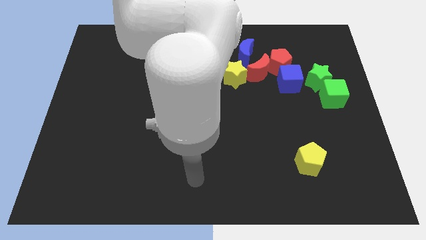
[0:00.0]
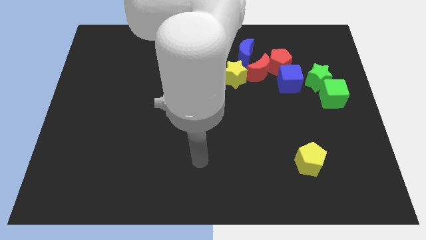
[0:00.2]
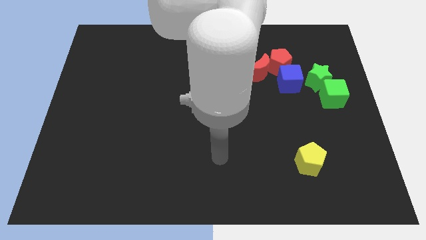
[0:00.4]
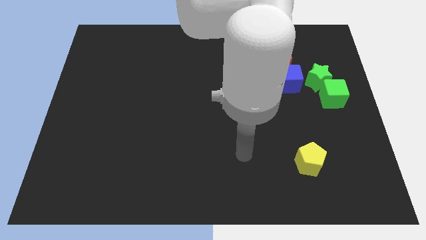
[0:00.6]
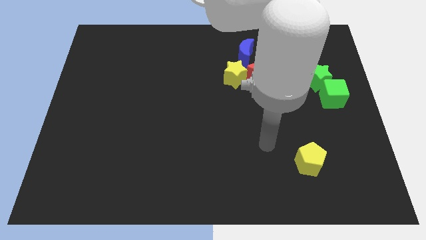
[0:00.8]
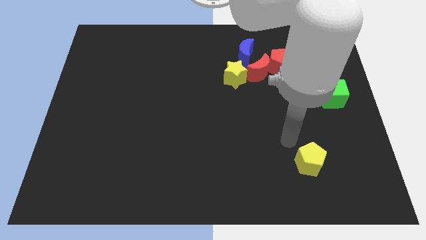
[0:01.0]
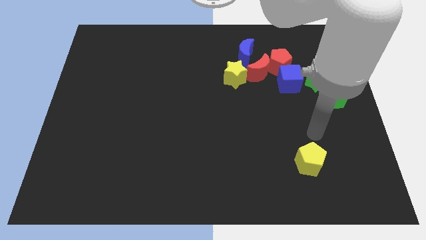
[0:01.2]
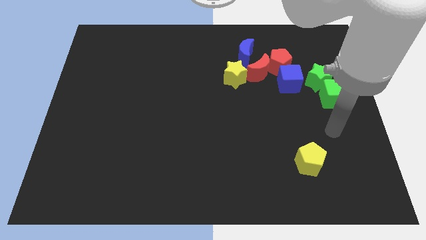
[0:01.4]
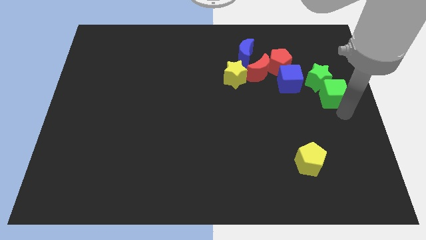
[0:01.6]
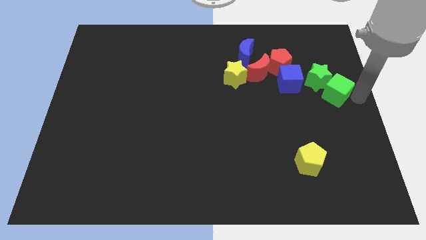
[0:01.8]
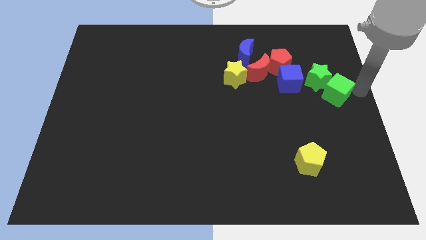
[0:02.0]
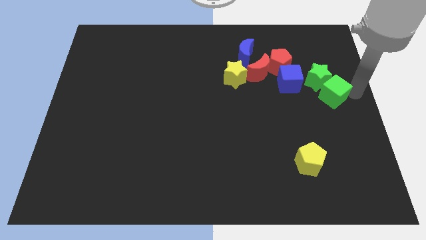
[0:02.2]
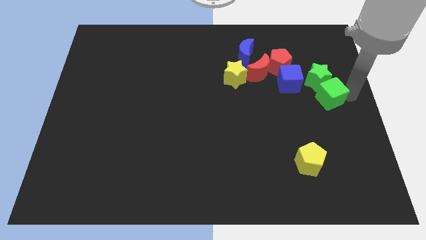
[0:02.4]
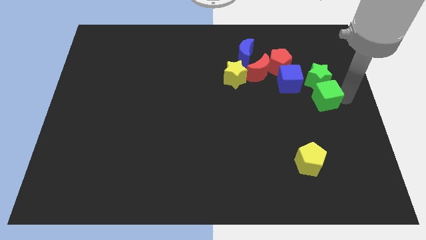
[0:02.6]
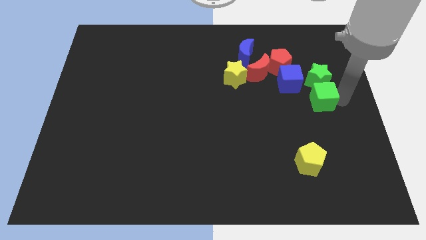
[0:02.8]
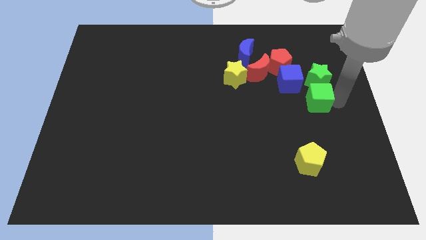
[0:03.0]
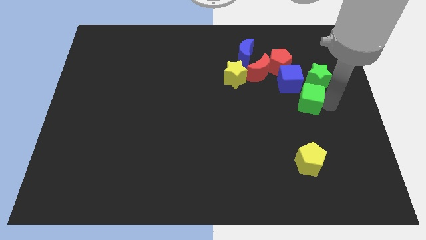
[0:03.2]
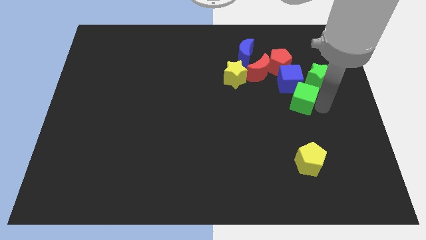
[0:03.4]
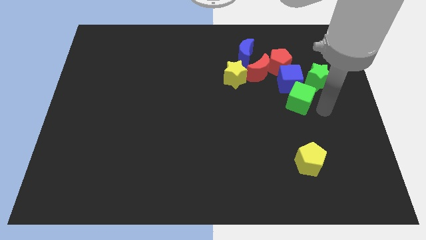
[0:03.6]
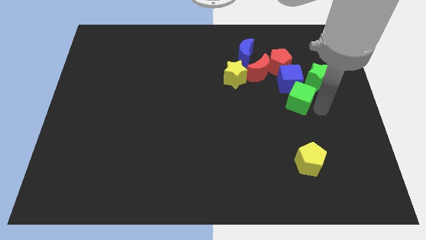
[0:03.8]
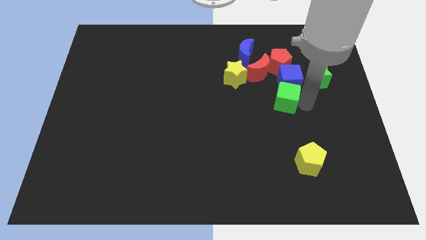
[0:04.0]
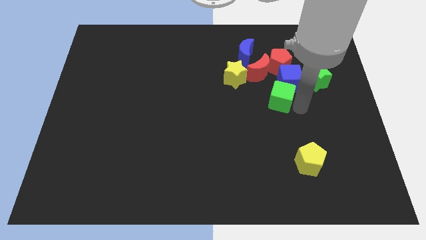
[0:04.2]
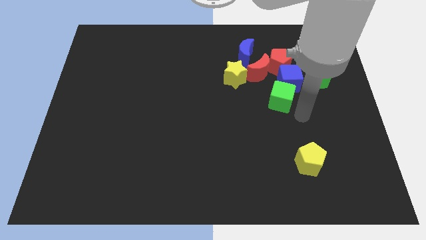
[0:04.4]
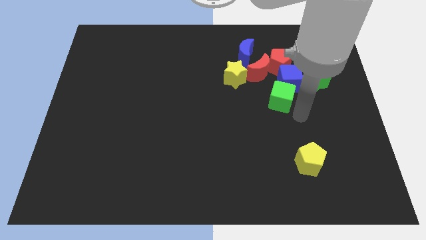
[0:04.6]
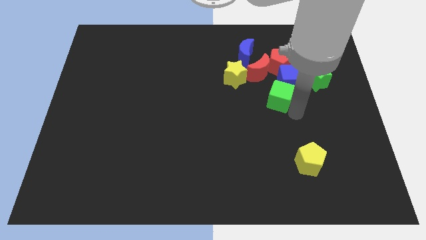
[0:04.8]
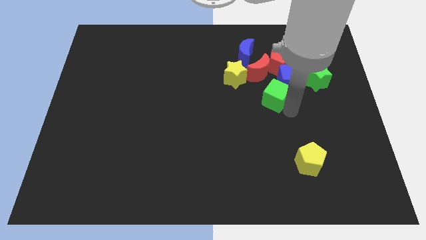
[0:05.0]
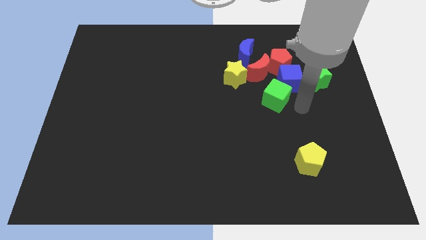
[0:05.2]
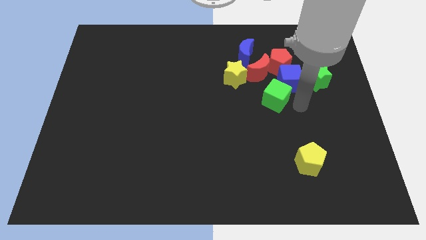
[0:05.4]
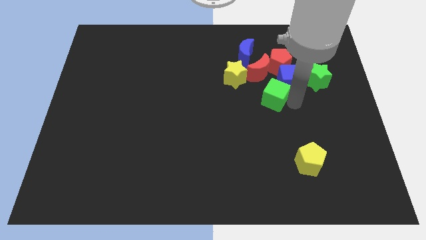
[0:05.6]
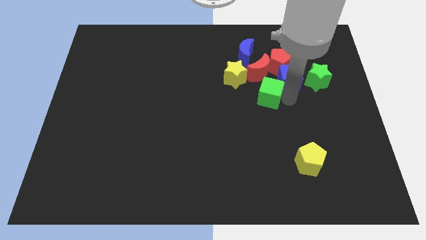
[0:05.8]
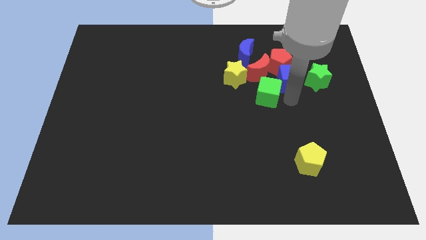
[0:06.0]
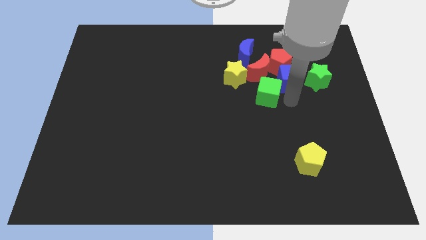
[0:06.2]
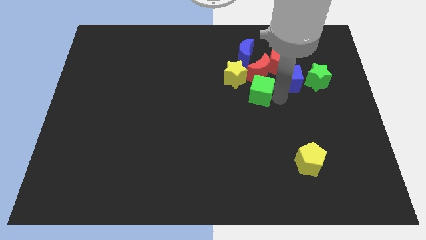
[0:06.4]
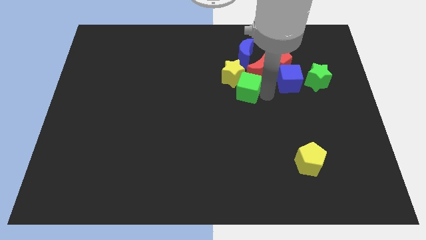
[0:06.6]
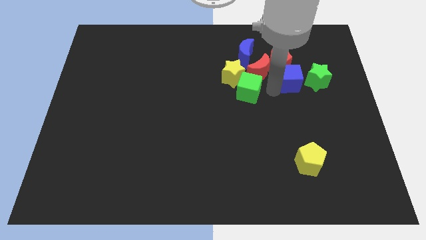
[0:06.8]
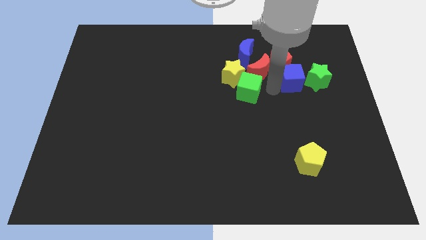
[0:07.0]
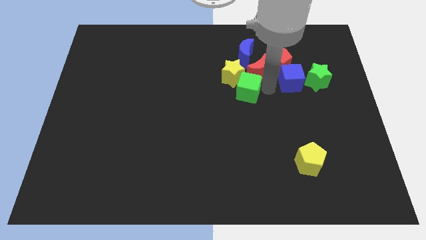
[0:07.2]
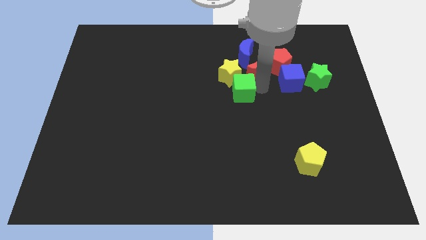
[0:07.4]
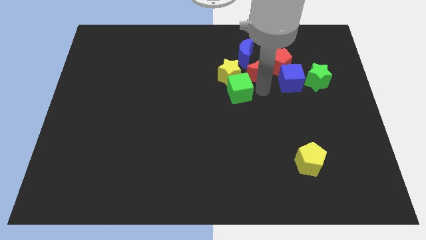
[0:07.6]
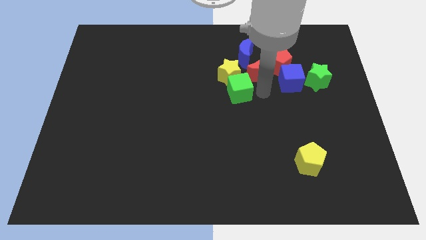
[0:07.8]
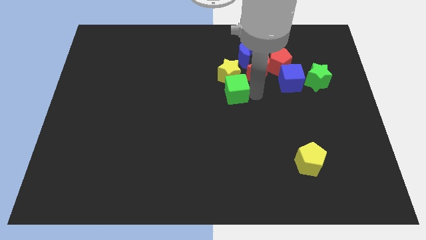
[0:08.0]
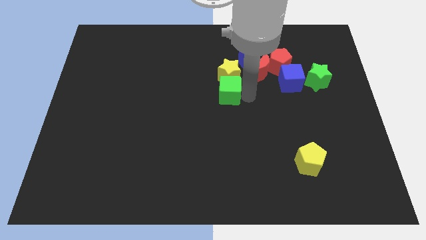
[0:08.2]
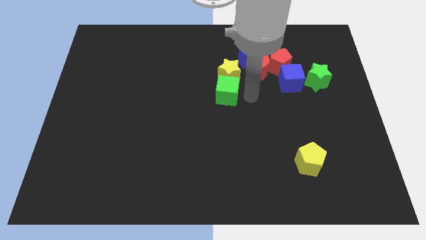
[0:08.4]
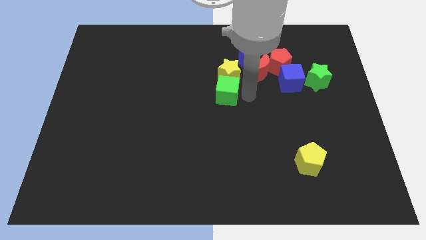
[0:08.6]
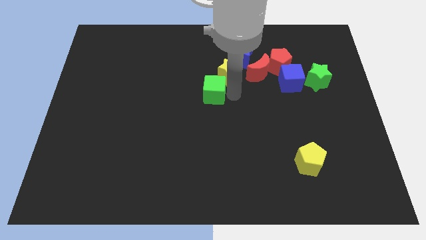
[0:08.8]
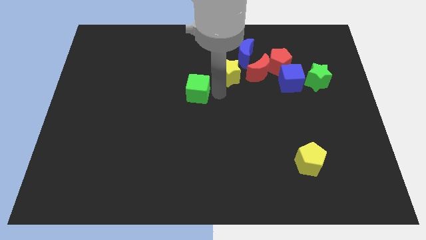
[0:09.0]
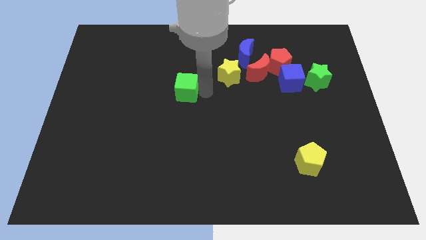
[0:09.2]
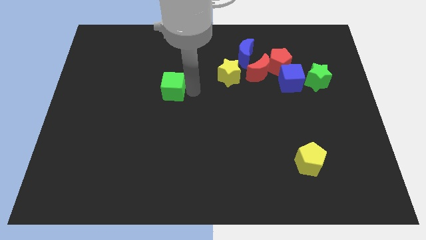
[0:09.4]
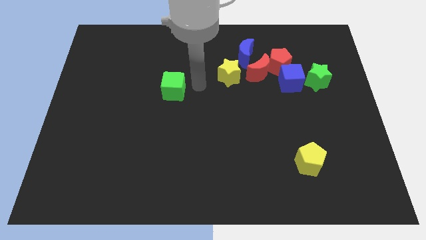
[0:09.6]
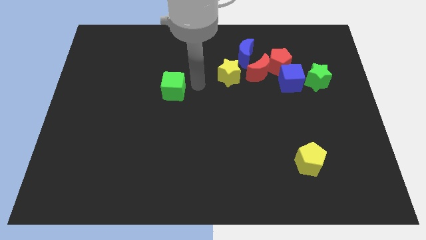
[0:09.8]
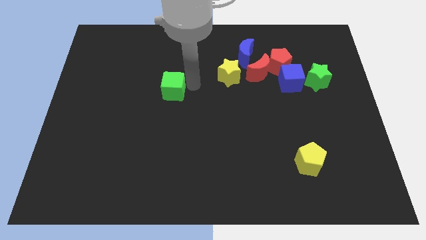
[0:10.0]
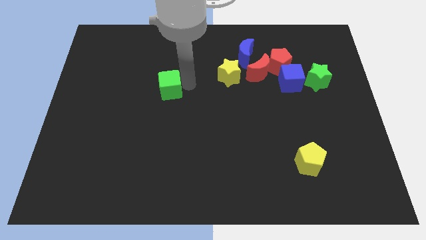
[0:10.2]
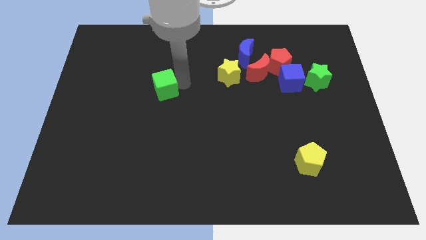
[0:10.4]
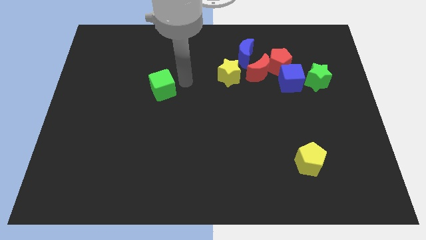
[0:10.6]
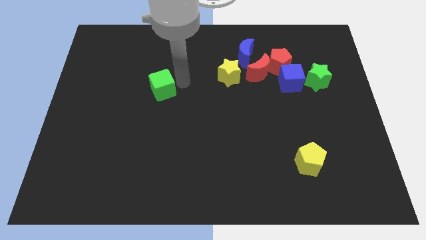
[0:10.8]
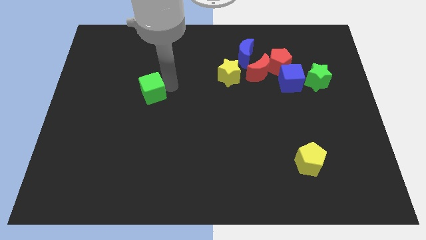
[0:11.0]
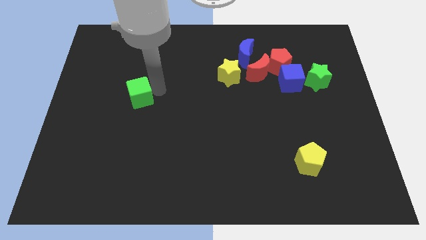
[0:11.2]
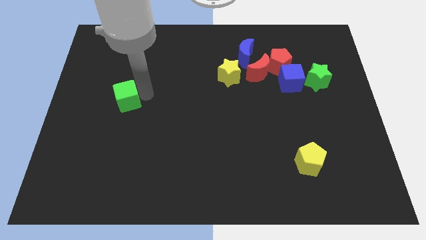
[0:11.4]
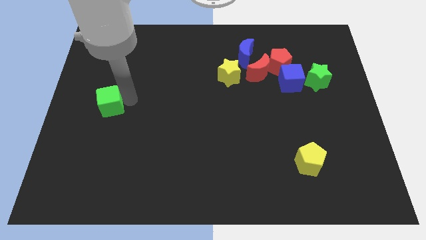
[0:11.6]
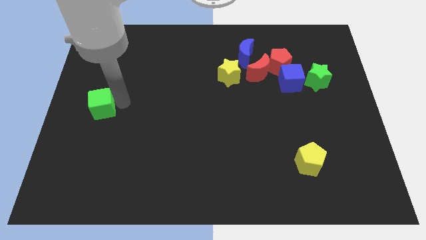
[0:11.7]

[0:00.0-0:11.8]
push the green cube to the left side
